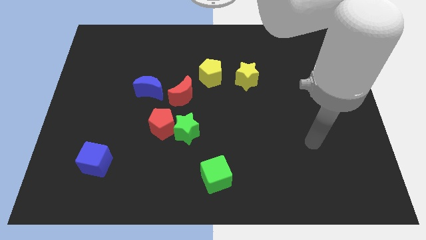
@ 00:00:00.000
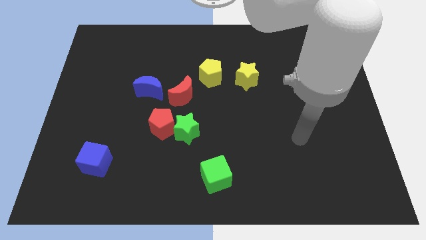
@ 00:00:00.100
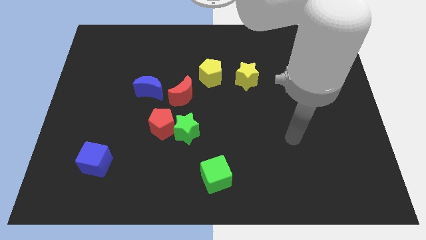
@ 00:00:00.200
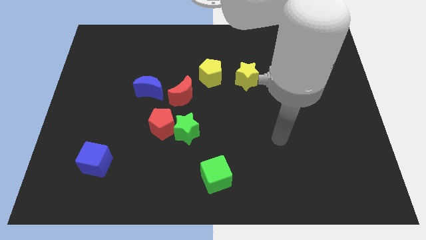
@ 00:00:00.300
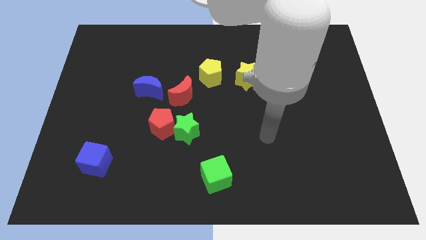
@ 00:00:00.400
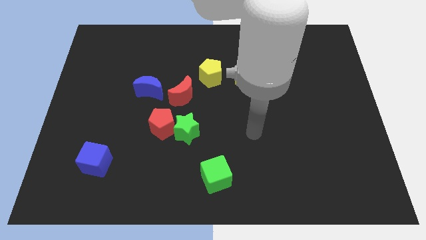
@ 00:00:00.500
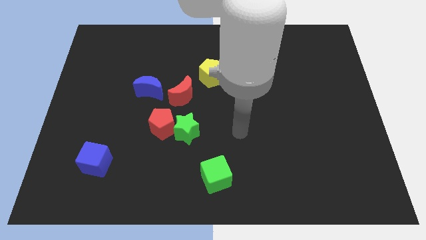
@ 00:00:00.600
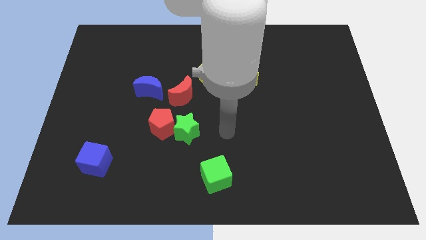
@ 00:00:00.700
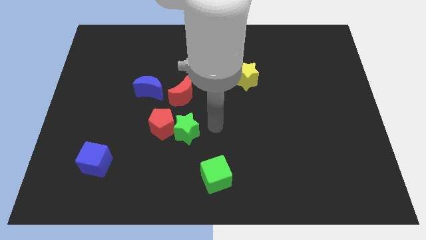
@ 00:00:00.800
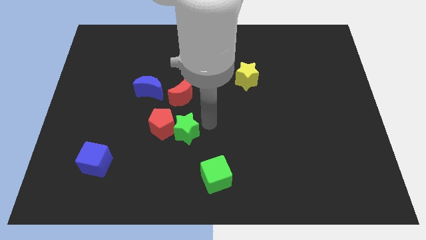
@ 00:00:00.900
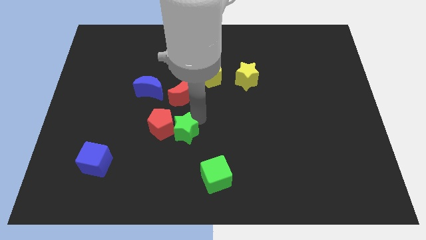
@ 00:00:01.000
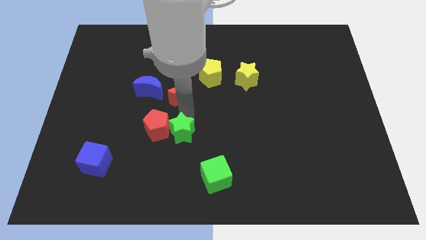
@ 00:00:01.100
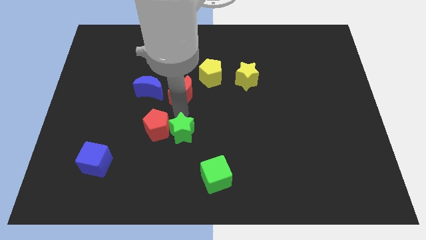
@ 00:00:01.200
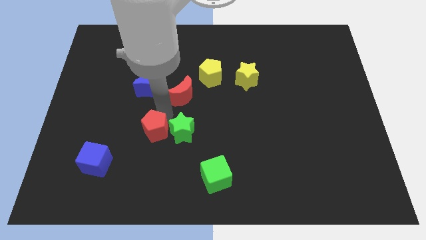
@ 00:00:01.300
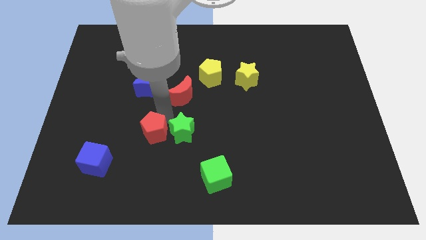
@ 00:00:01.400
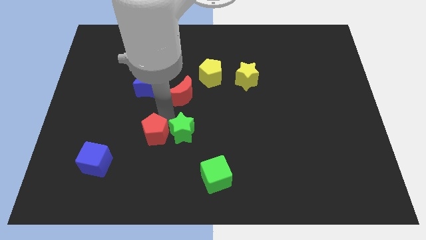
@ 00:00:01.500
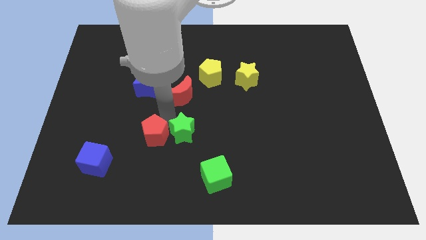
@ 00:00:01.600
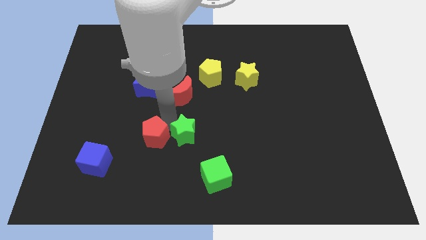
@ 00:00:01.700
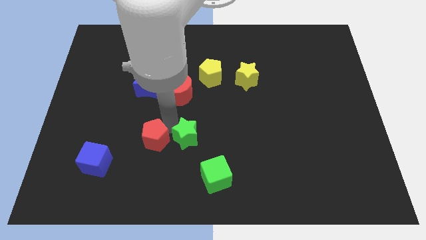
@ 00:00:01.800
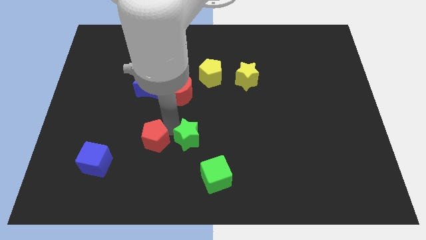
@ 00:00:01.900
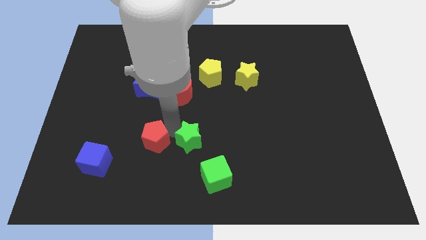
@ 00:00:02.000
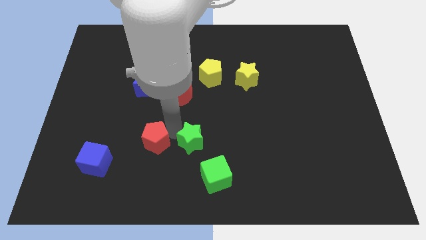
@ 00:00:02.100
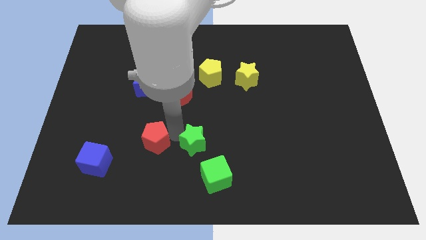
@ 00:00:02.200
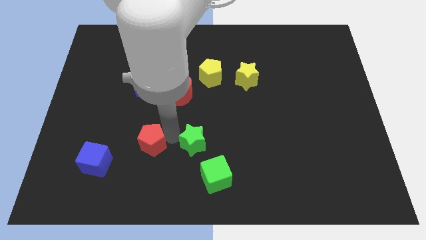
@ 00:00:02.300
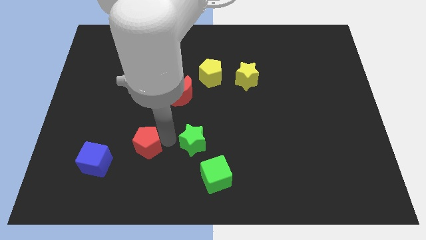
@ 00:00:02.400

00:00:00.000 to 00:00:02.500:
pull the green star apart from the red pentagon

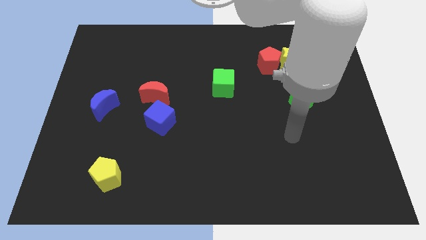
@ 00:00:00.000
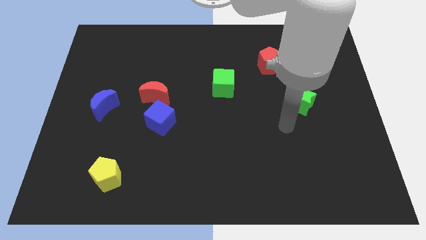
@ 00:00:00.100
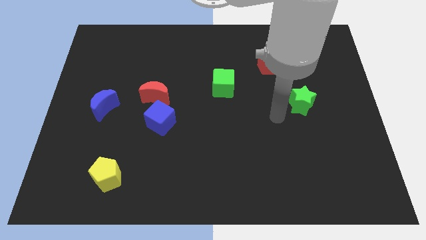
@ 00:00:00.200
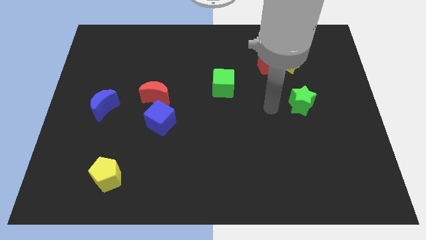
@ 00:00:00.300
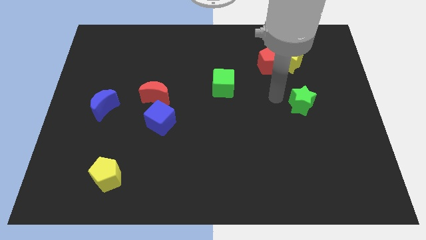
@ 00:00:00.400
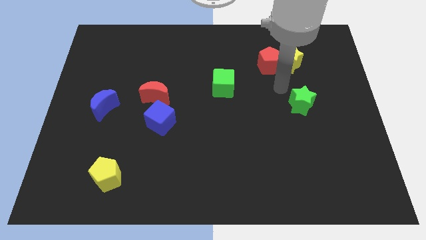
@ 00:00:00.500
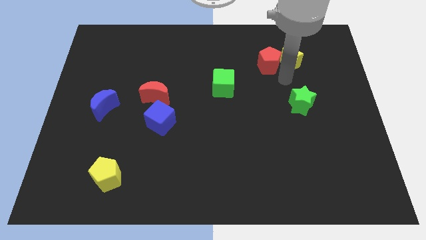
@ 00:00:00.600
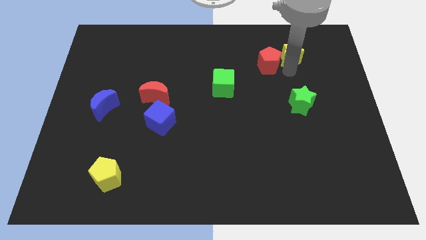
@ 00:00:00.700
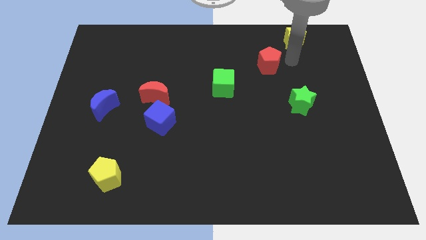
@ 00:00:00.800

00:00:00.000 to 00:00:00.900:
separate the red pentagon from the yellow star

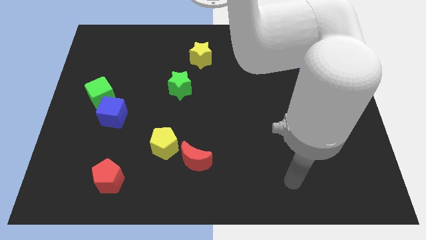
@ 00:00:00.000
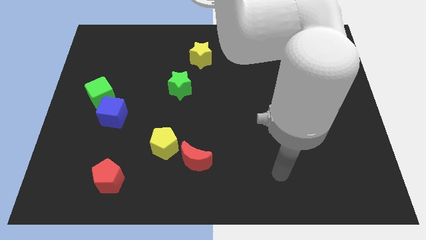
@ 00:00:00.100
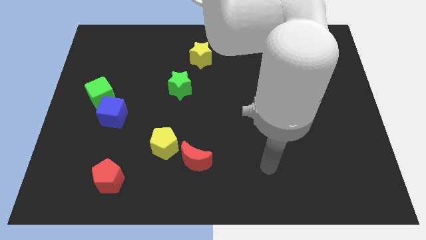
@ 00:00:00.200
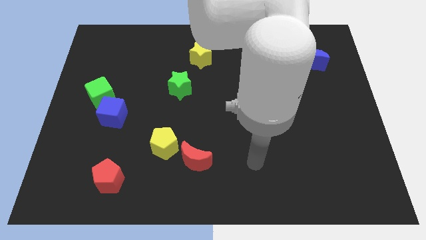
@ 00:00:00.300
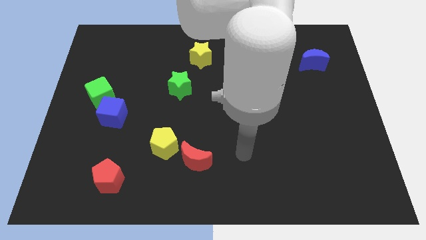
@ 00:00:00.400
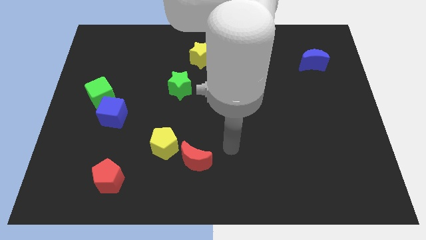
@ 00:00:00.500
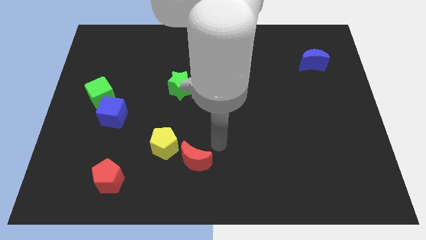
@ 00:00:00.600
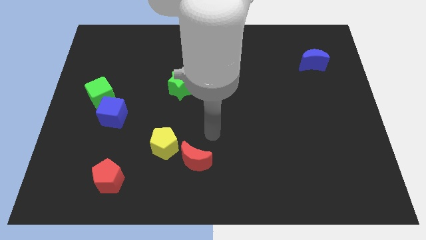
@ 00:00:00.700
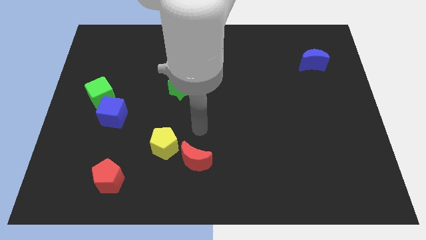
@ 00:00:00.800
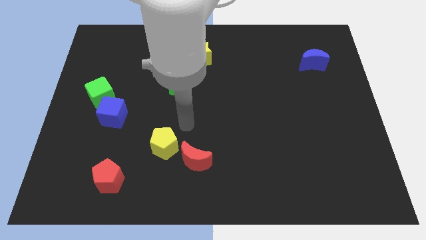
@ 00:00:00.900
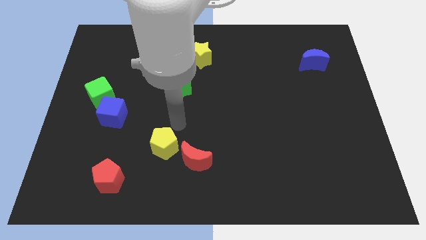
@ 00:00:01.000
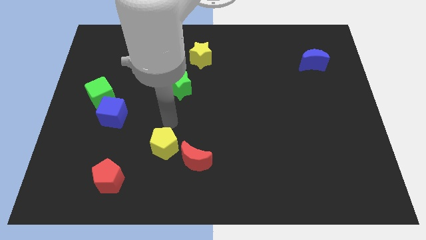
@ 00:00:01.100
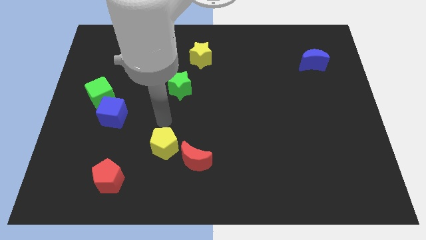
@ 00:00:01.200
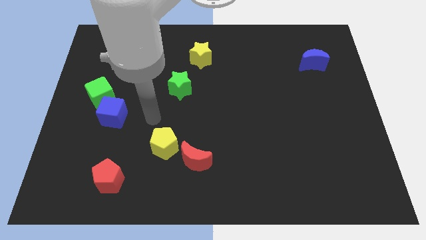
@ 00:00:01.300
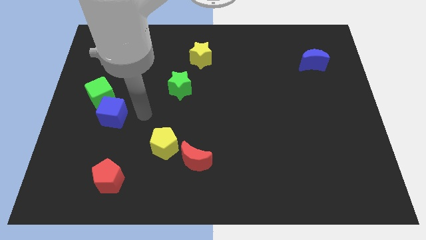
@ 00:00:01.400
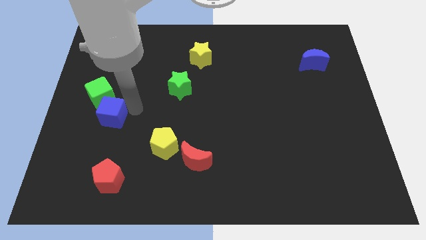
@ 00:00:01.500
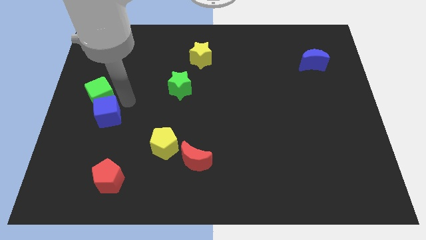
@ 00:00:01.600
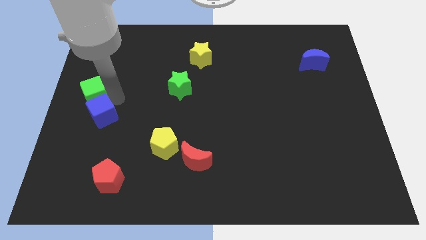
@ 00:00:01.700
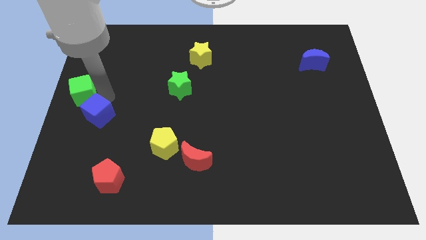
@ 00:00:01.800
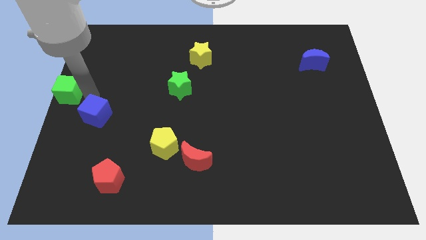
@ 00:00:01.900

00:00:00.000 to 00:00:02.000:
pull the blue cube apart from the green cube

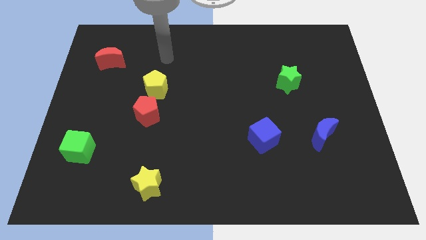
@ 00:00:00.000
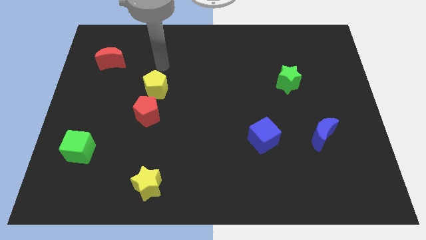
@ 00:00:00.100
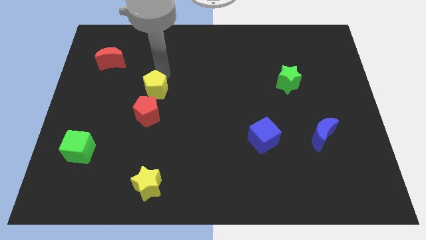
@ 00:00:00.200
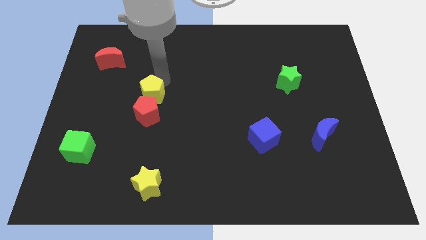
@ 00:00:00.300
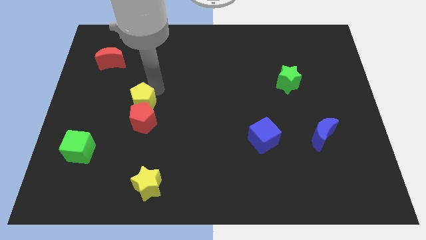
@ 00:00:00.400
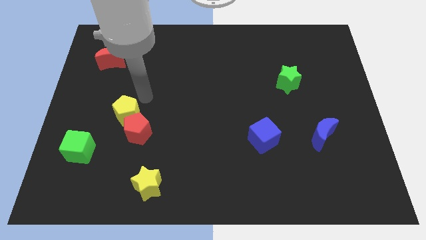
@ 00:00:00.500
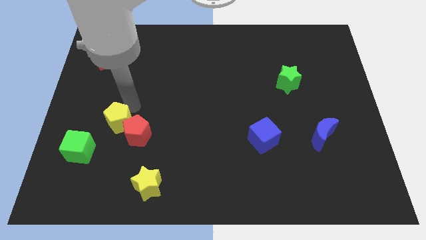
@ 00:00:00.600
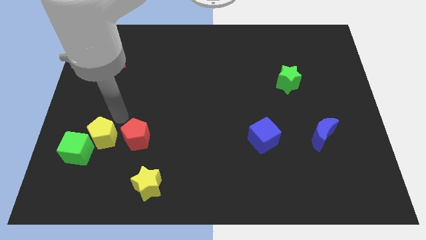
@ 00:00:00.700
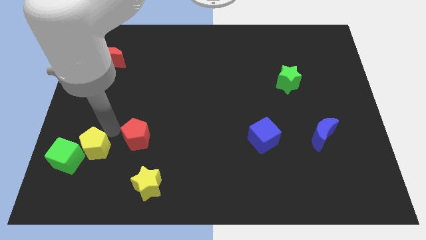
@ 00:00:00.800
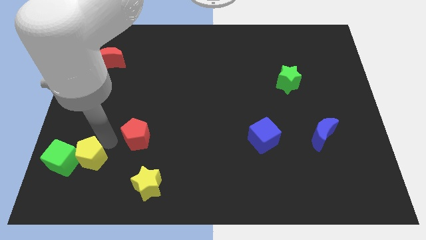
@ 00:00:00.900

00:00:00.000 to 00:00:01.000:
move the red pentagon away from the yellow pentagon

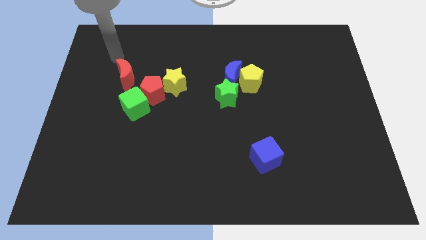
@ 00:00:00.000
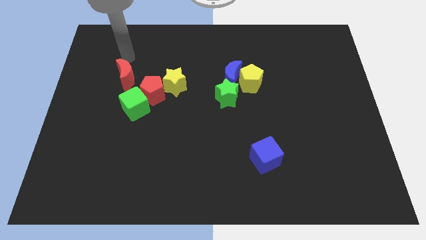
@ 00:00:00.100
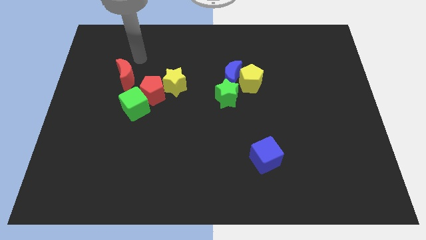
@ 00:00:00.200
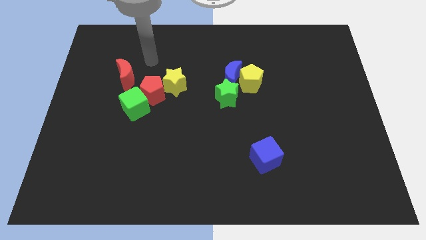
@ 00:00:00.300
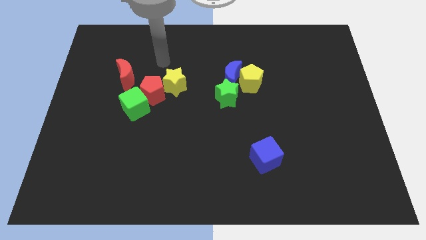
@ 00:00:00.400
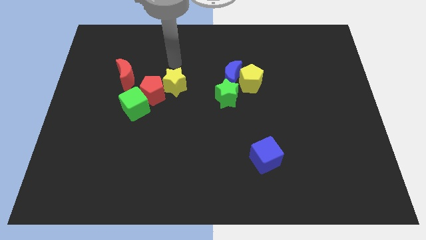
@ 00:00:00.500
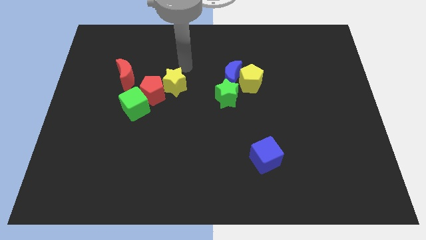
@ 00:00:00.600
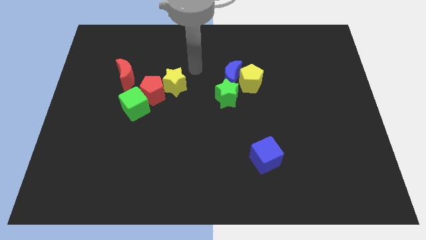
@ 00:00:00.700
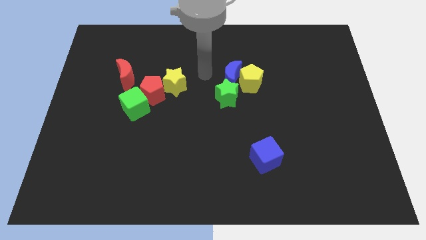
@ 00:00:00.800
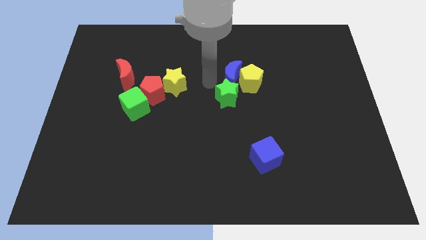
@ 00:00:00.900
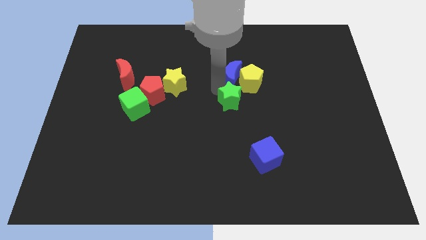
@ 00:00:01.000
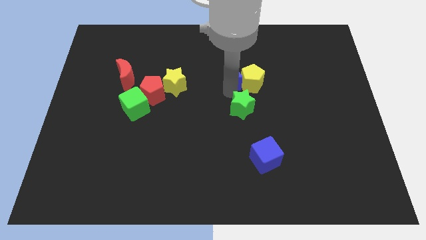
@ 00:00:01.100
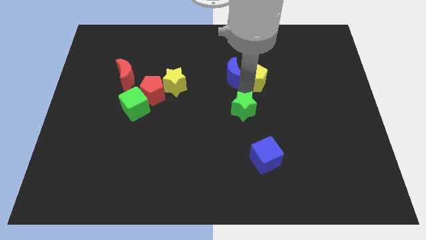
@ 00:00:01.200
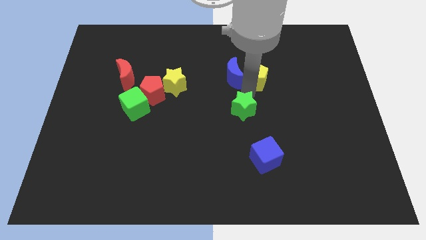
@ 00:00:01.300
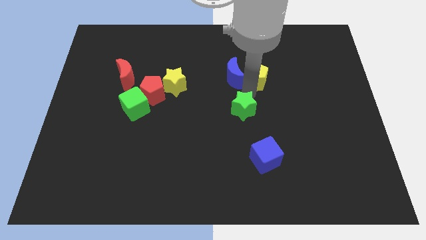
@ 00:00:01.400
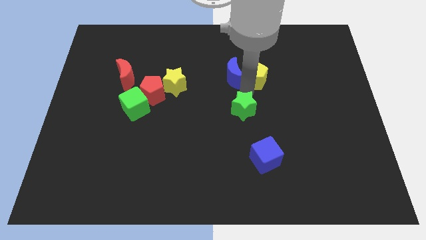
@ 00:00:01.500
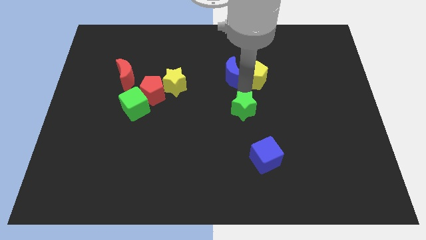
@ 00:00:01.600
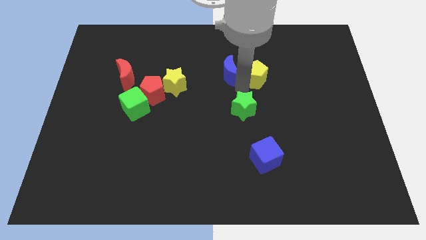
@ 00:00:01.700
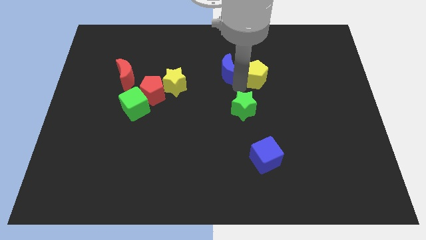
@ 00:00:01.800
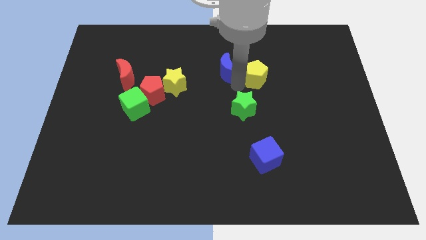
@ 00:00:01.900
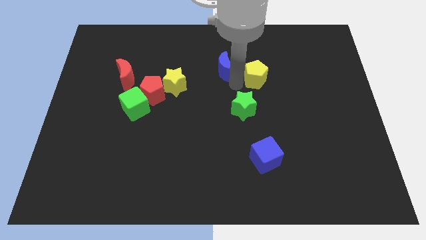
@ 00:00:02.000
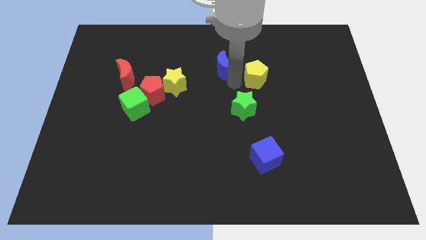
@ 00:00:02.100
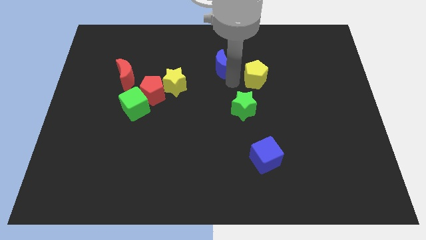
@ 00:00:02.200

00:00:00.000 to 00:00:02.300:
pull the blue moon apart from the yellow pentagon and green star

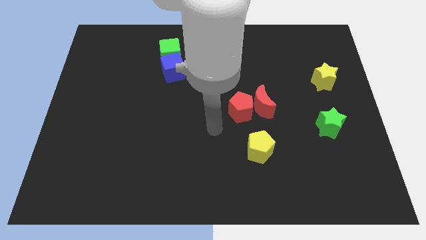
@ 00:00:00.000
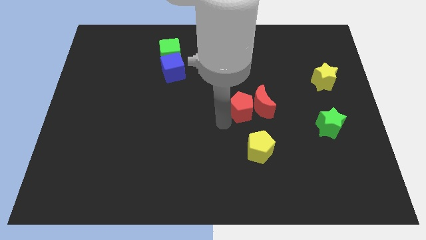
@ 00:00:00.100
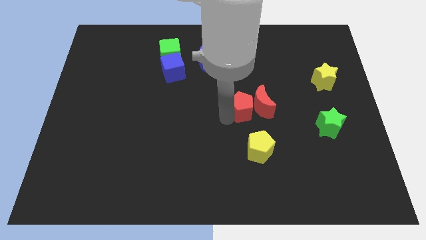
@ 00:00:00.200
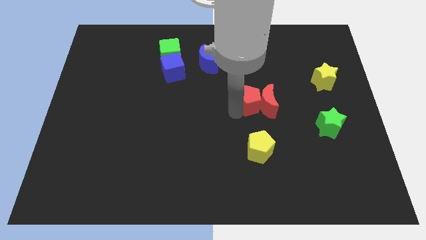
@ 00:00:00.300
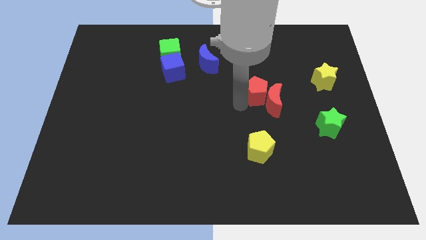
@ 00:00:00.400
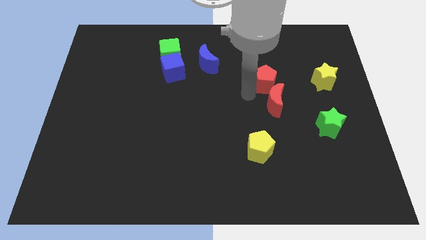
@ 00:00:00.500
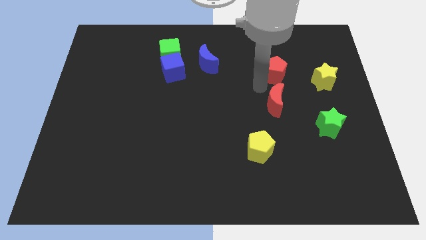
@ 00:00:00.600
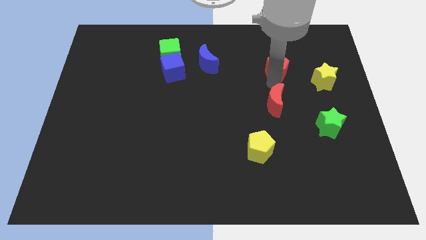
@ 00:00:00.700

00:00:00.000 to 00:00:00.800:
pull the red moon apart from the red pentagon
